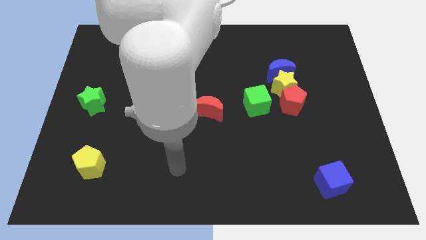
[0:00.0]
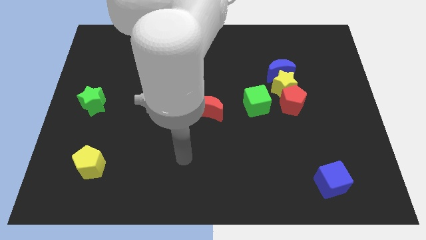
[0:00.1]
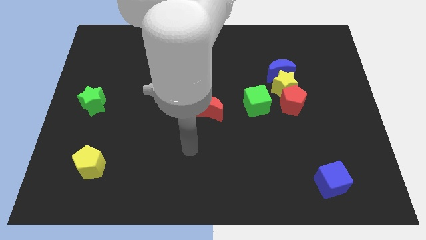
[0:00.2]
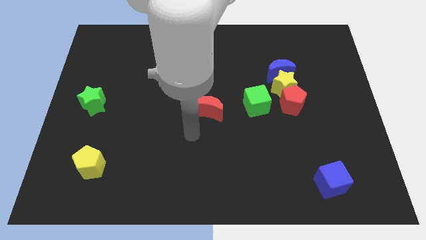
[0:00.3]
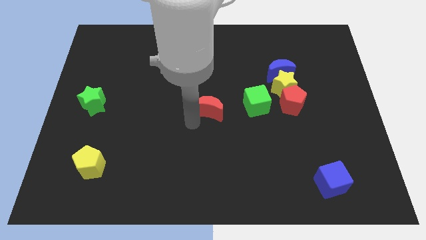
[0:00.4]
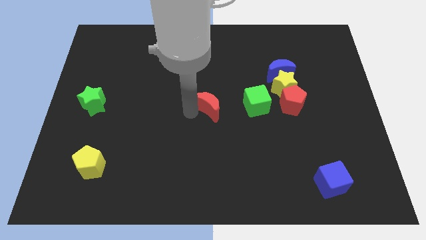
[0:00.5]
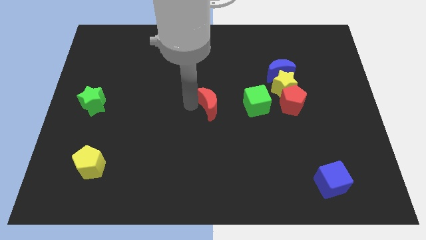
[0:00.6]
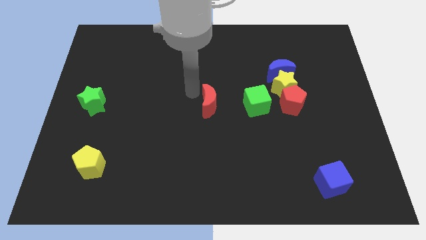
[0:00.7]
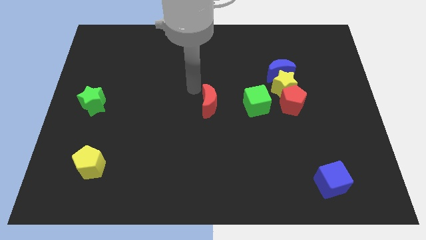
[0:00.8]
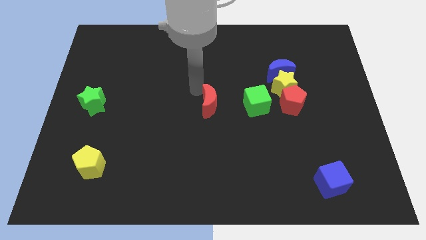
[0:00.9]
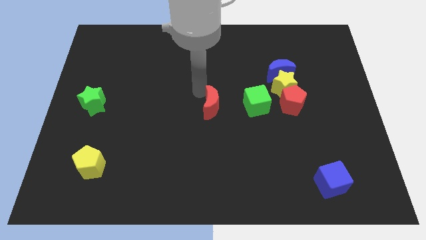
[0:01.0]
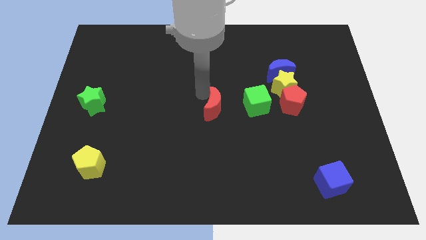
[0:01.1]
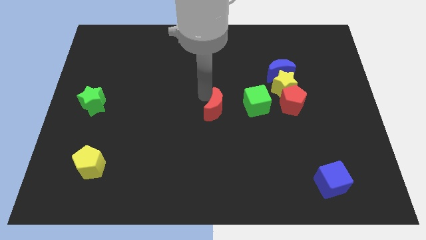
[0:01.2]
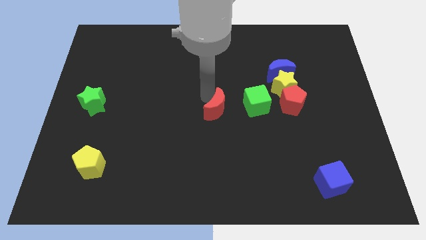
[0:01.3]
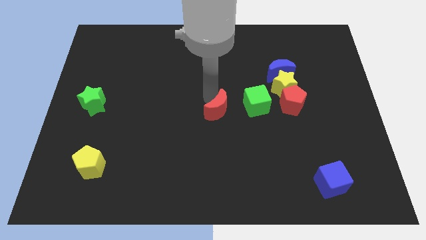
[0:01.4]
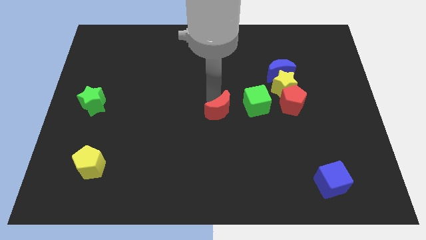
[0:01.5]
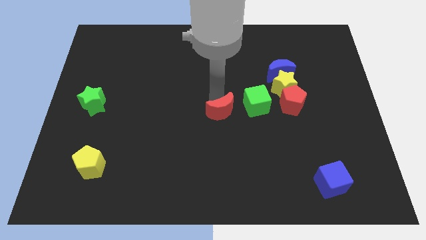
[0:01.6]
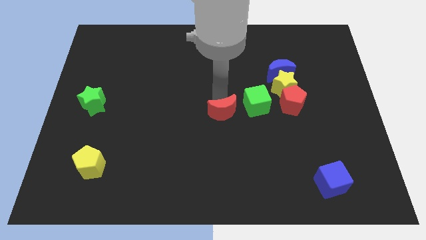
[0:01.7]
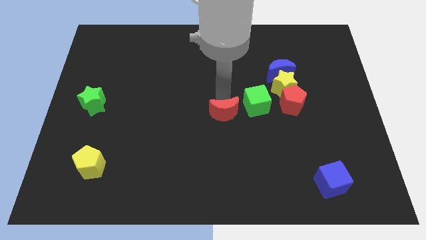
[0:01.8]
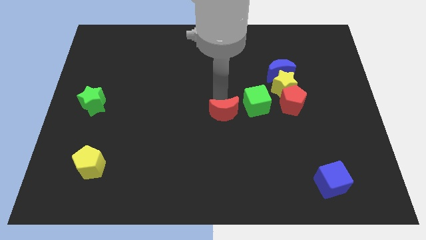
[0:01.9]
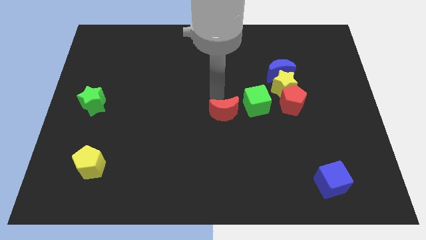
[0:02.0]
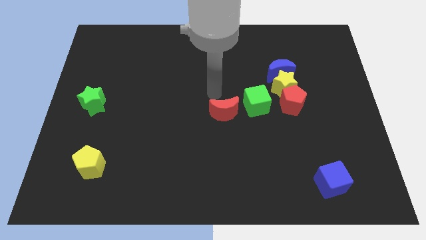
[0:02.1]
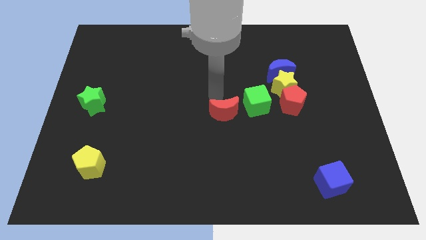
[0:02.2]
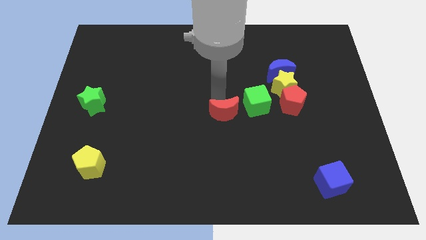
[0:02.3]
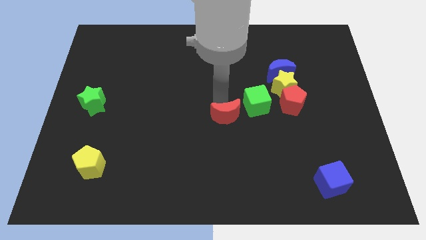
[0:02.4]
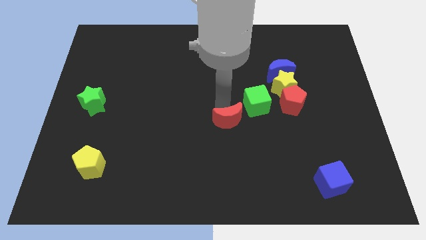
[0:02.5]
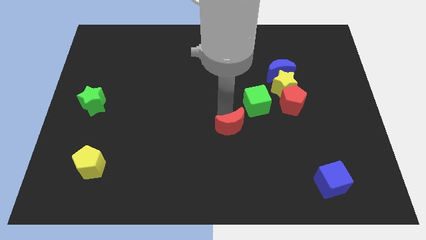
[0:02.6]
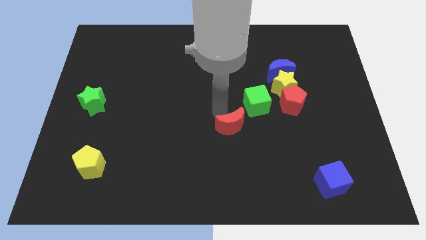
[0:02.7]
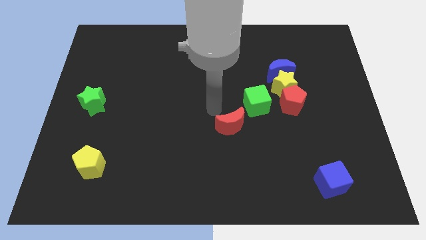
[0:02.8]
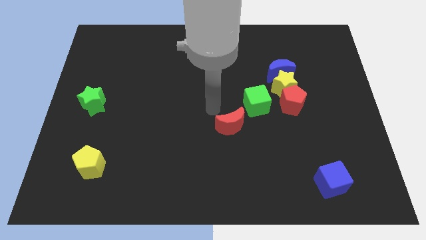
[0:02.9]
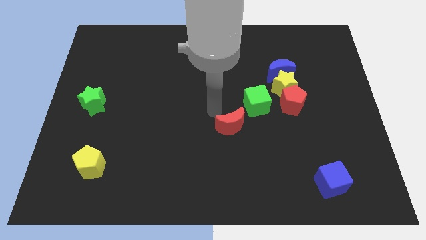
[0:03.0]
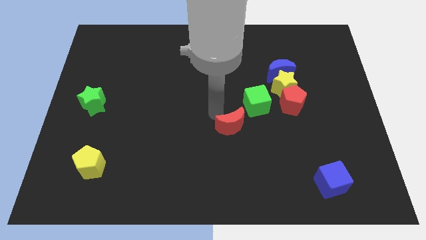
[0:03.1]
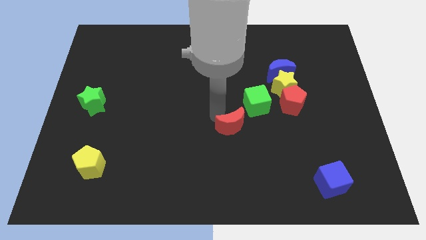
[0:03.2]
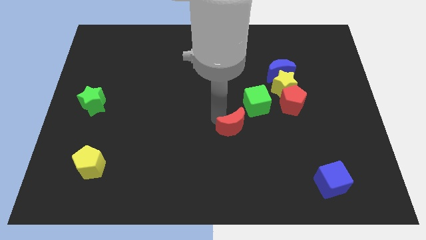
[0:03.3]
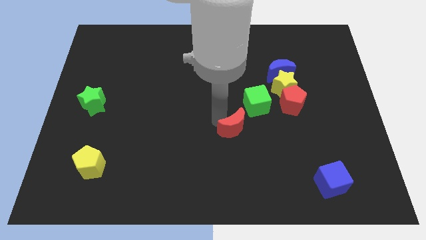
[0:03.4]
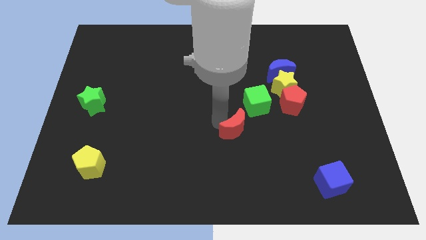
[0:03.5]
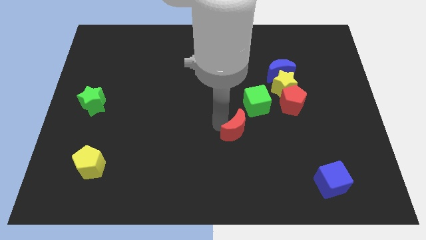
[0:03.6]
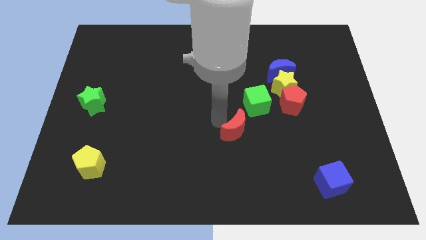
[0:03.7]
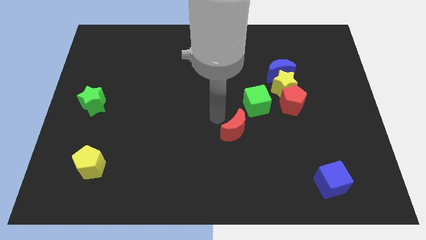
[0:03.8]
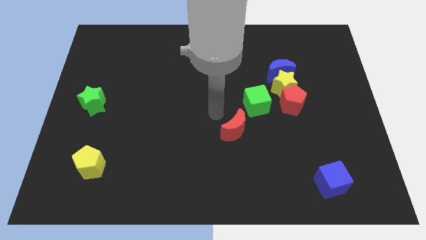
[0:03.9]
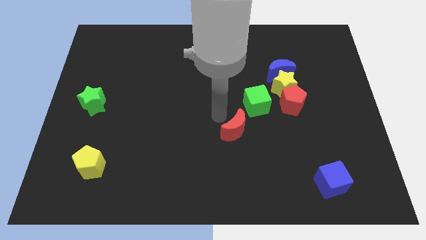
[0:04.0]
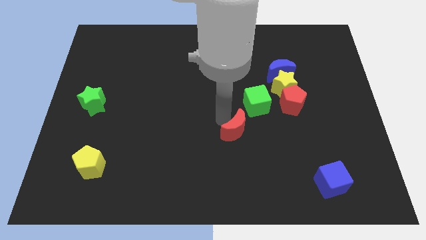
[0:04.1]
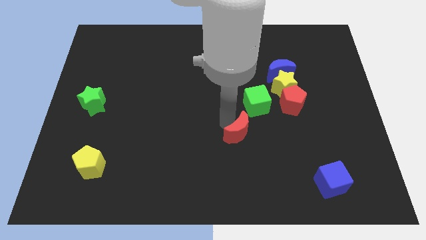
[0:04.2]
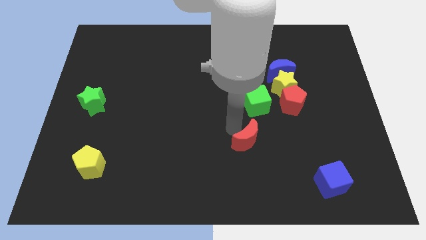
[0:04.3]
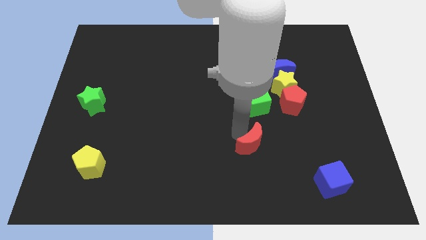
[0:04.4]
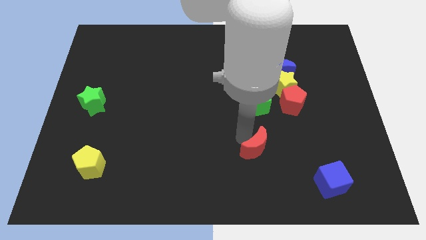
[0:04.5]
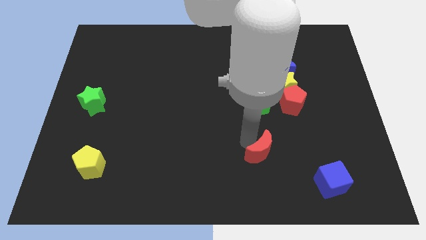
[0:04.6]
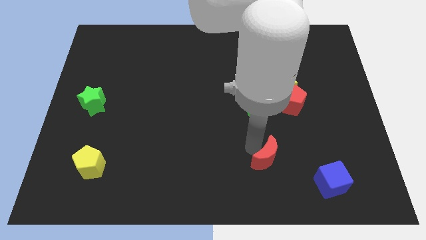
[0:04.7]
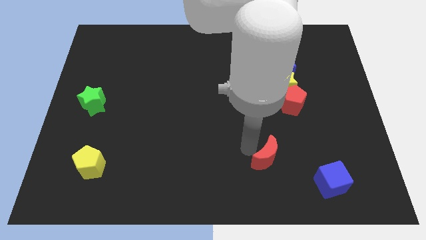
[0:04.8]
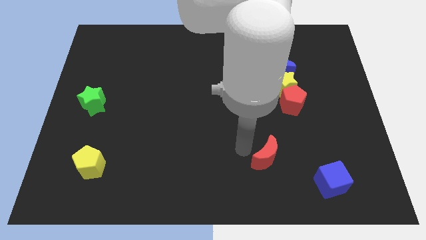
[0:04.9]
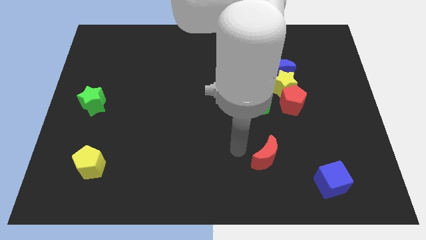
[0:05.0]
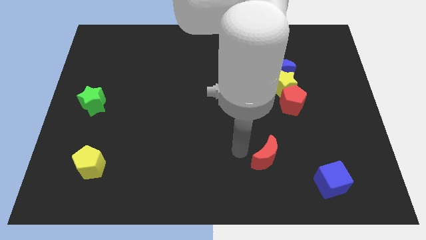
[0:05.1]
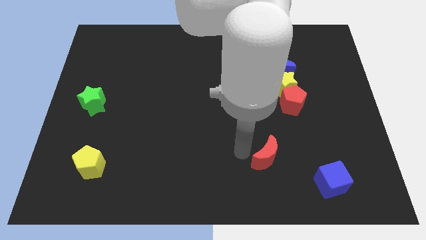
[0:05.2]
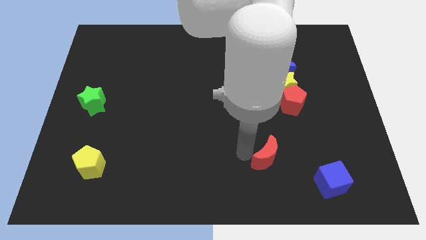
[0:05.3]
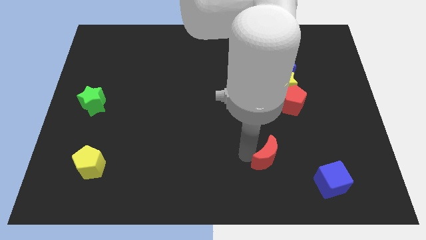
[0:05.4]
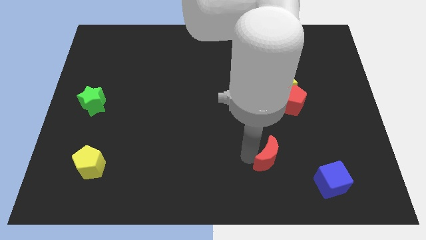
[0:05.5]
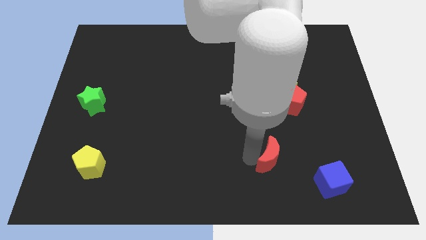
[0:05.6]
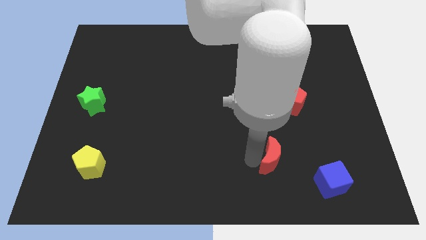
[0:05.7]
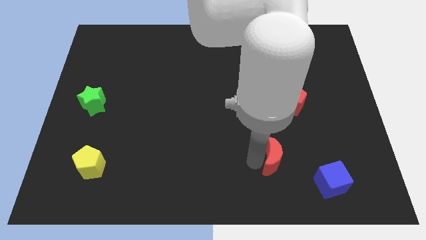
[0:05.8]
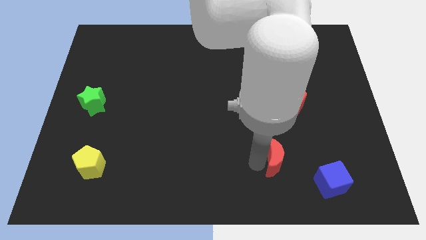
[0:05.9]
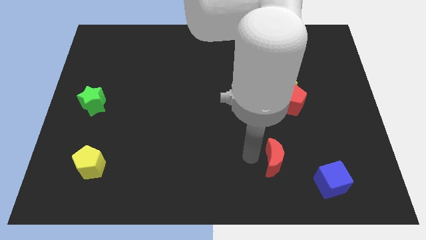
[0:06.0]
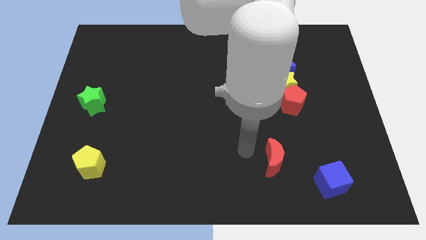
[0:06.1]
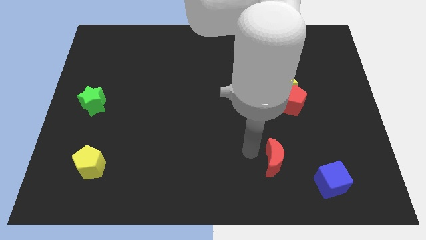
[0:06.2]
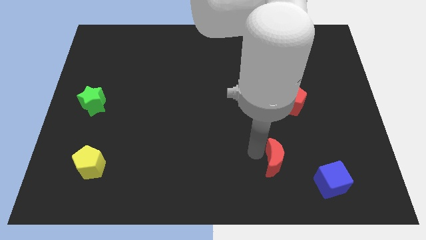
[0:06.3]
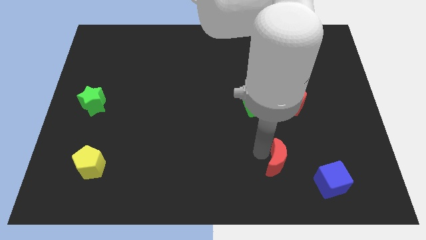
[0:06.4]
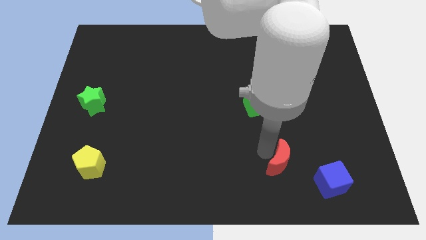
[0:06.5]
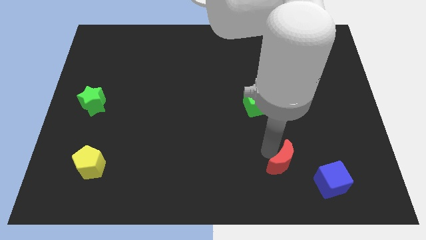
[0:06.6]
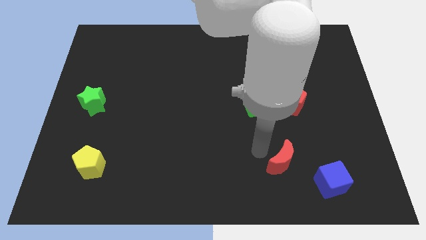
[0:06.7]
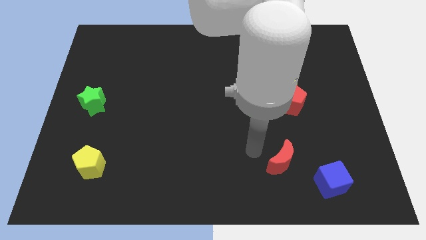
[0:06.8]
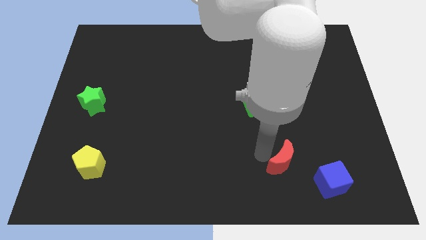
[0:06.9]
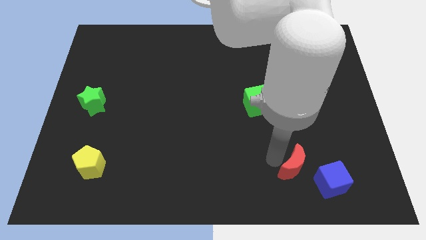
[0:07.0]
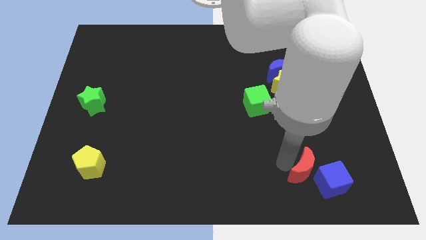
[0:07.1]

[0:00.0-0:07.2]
move the red moon towards the blue cube

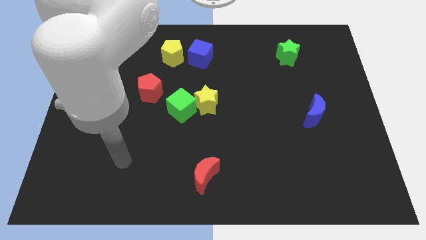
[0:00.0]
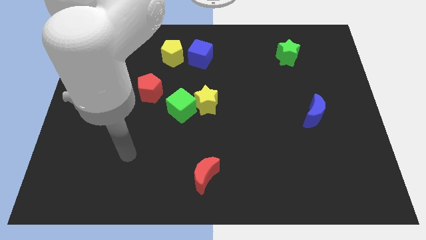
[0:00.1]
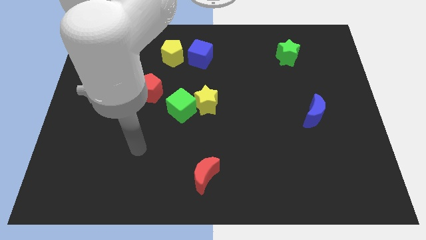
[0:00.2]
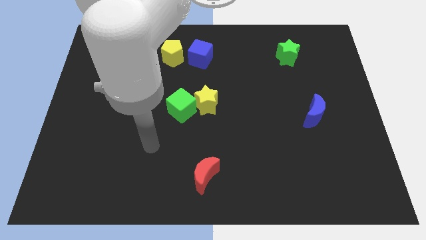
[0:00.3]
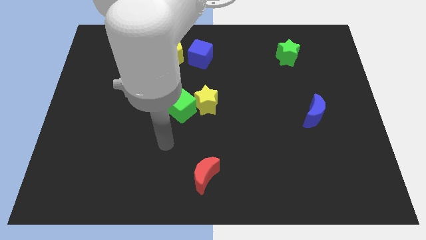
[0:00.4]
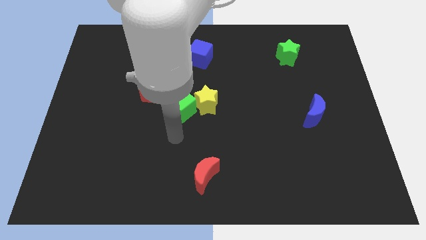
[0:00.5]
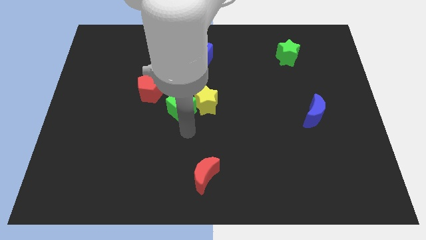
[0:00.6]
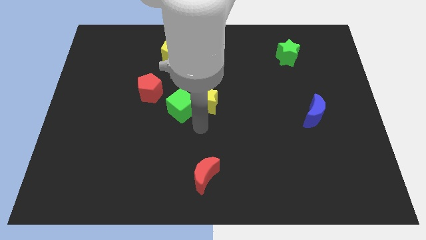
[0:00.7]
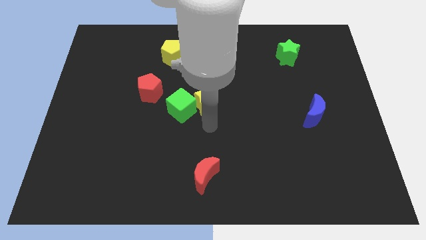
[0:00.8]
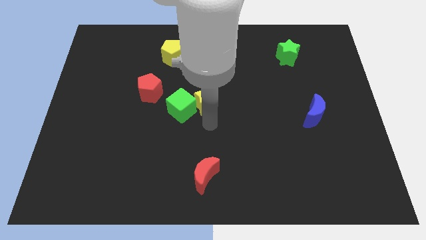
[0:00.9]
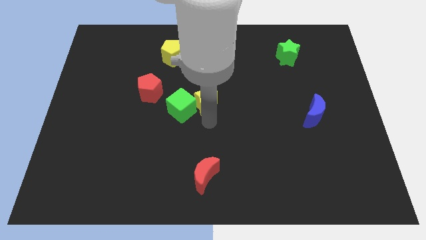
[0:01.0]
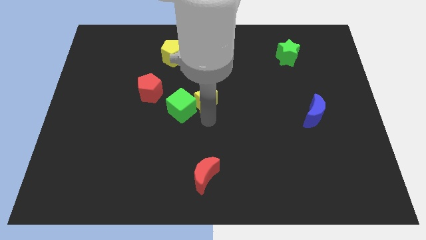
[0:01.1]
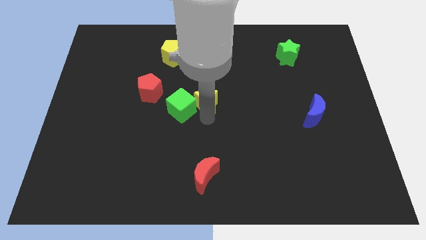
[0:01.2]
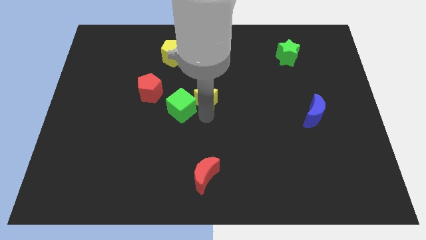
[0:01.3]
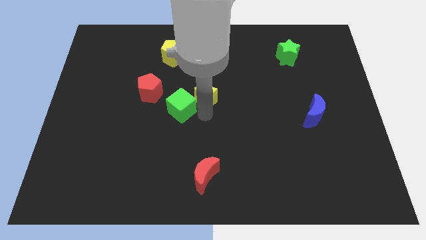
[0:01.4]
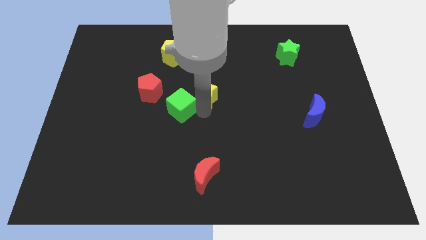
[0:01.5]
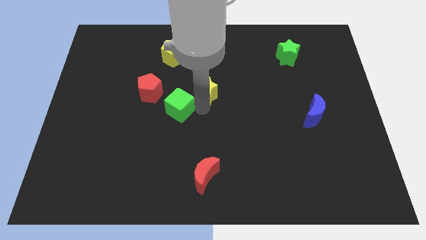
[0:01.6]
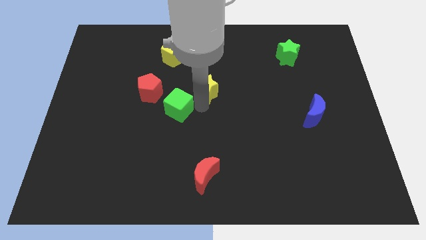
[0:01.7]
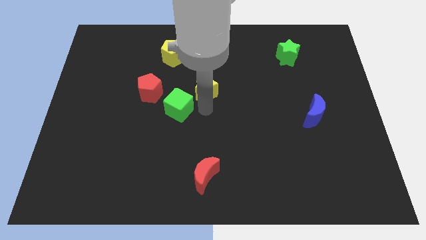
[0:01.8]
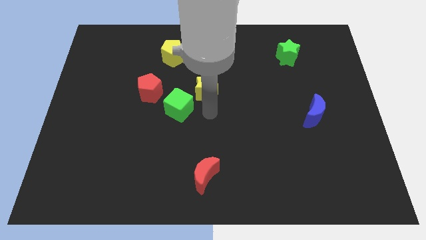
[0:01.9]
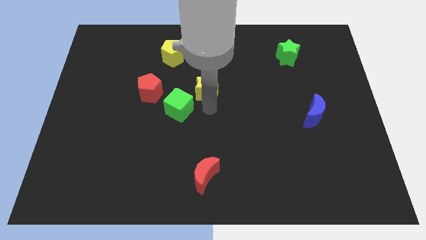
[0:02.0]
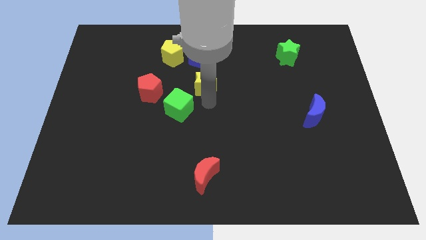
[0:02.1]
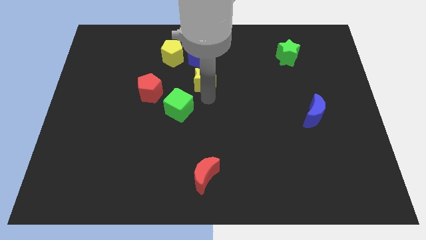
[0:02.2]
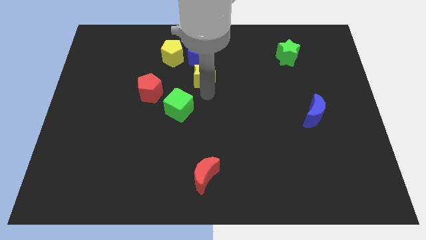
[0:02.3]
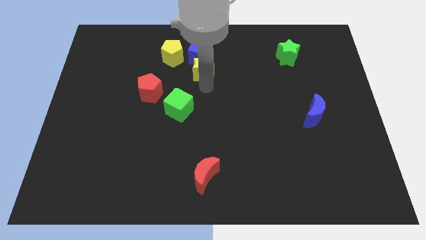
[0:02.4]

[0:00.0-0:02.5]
slide the yellow star to the blue cube
